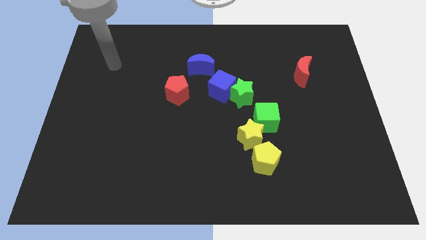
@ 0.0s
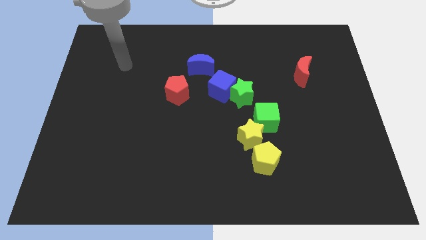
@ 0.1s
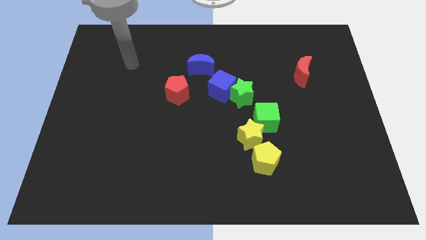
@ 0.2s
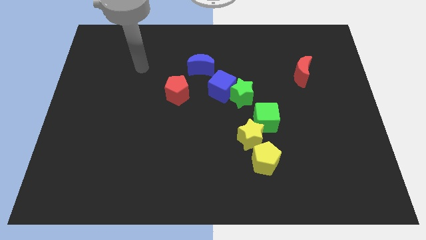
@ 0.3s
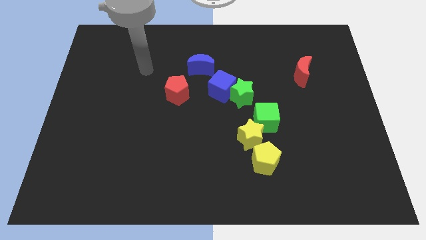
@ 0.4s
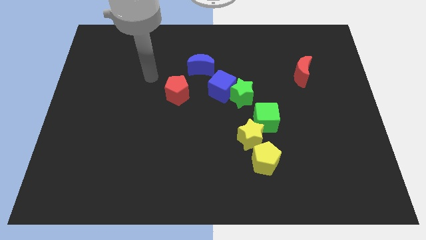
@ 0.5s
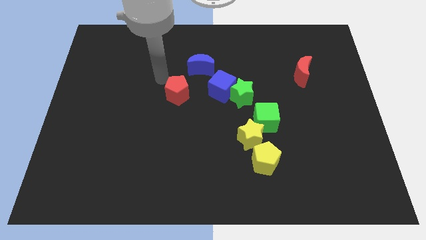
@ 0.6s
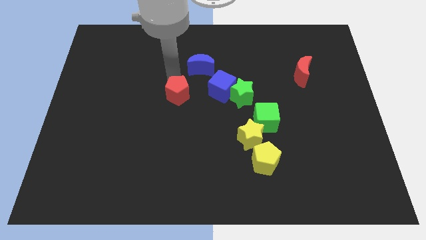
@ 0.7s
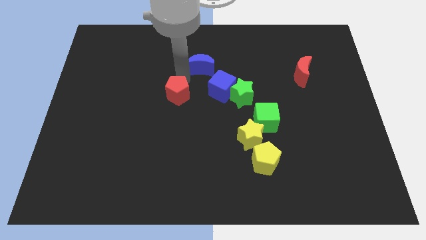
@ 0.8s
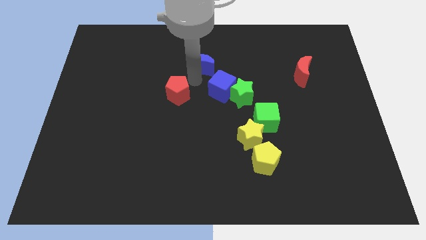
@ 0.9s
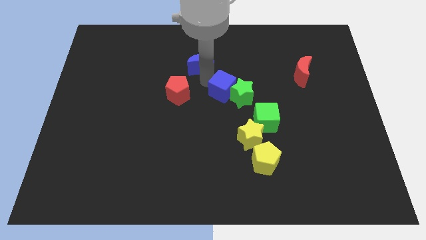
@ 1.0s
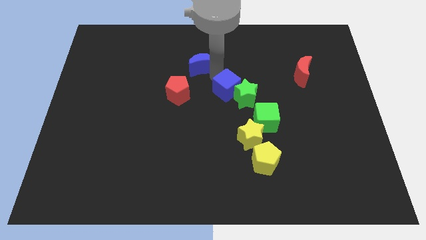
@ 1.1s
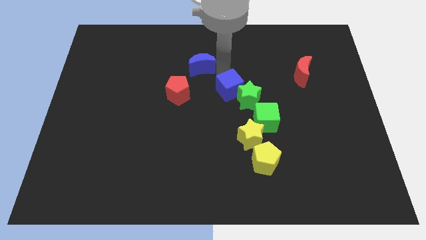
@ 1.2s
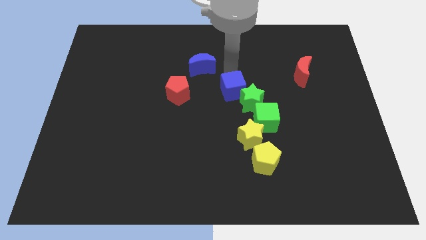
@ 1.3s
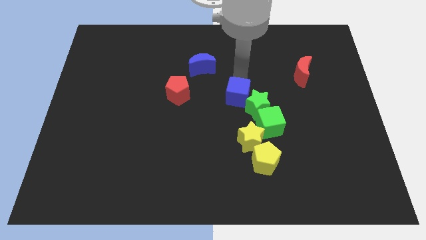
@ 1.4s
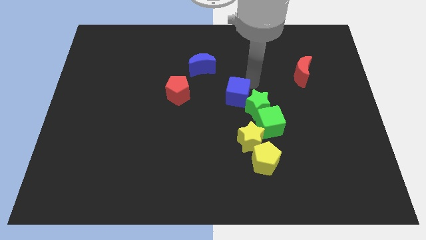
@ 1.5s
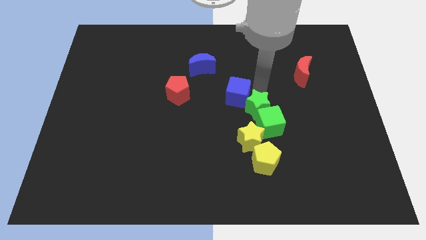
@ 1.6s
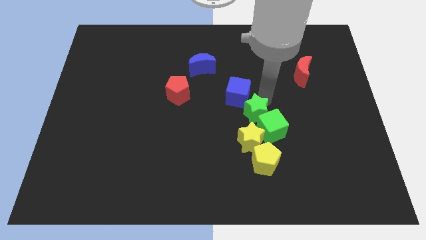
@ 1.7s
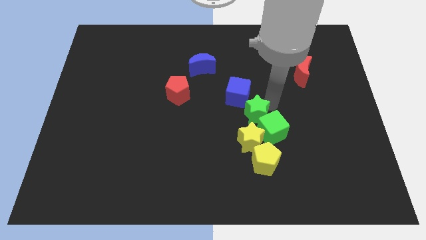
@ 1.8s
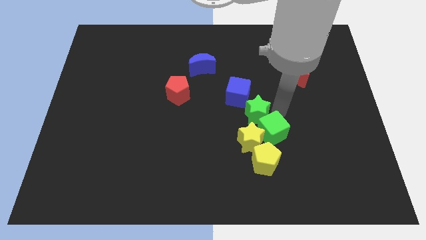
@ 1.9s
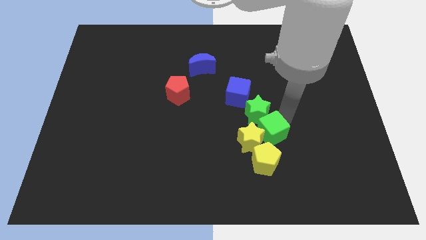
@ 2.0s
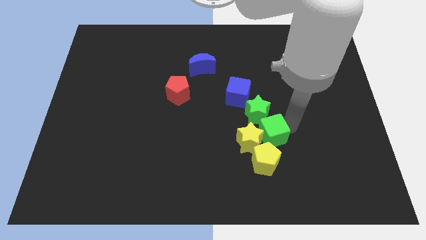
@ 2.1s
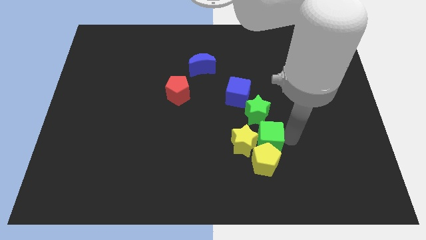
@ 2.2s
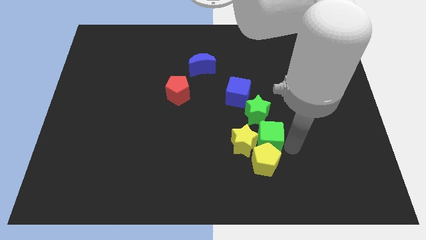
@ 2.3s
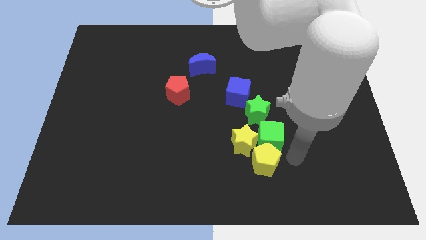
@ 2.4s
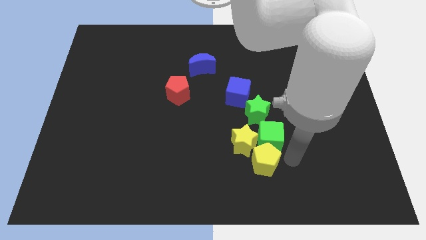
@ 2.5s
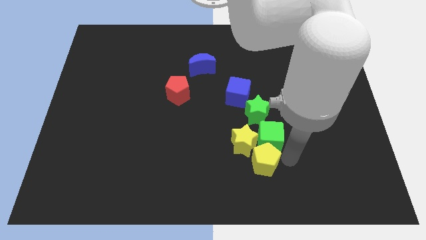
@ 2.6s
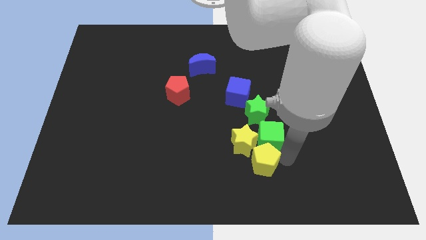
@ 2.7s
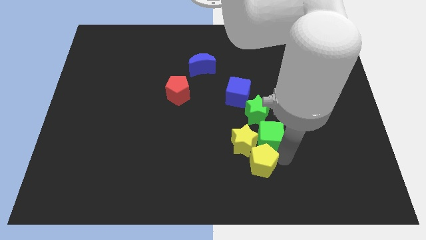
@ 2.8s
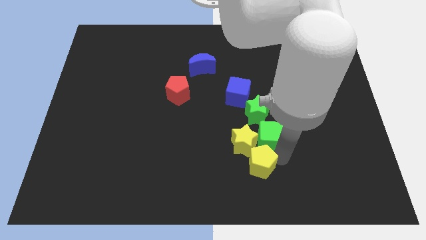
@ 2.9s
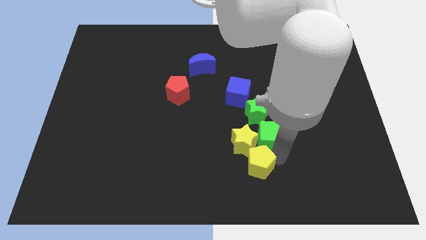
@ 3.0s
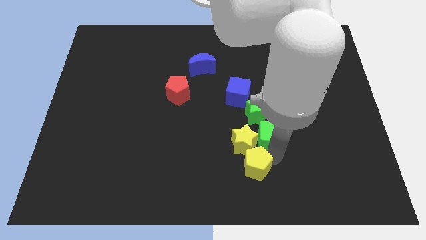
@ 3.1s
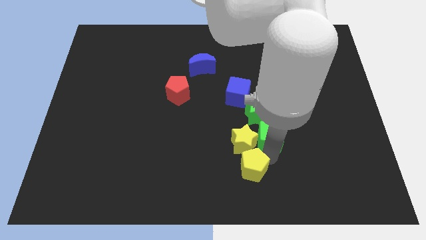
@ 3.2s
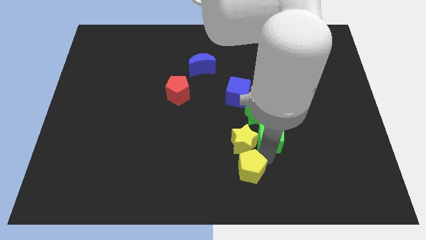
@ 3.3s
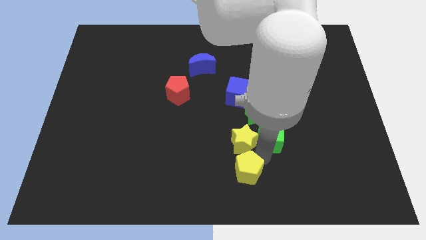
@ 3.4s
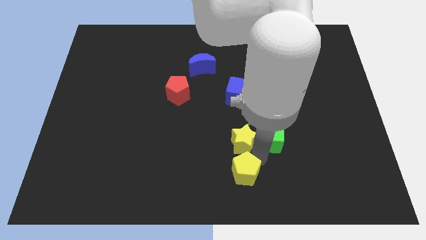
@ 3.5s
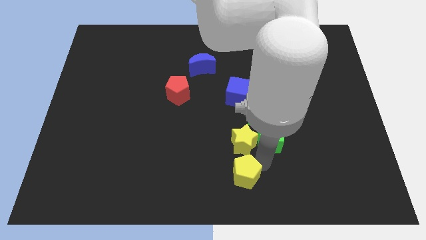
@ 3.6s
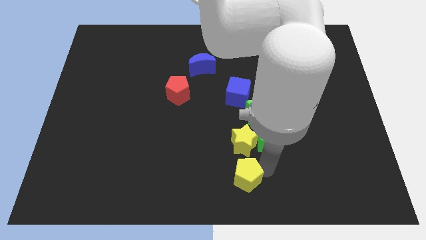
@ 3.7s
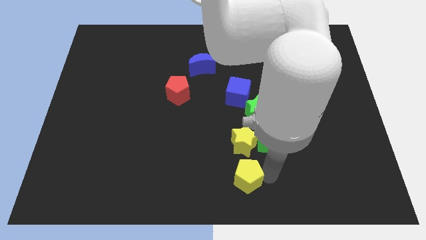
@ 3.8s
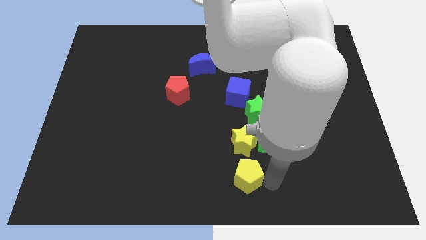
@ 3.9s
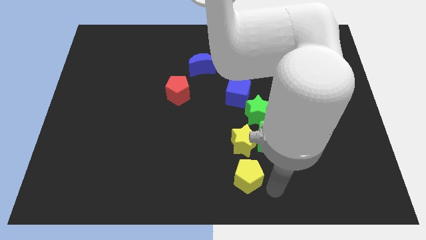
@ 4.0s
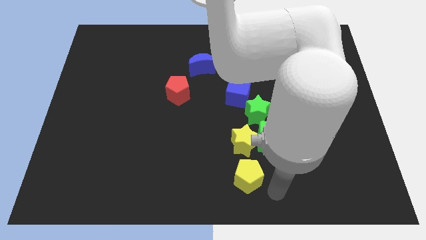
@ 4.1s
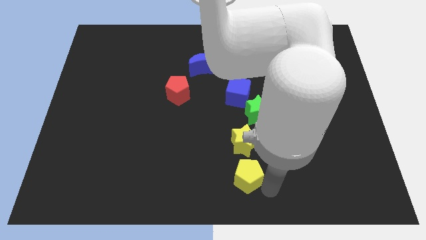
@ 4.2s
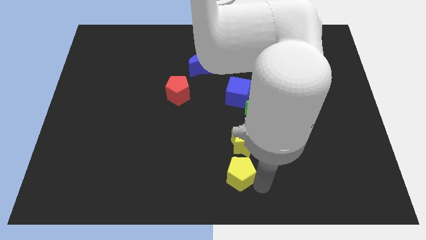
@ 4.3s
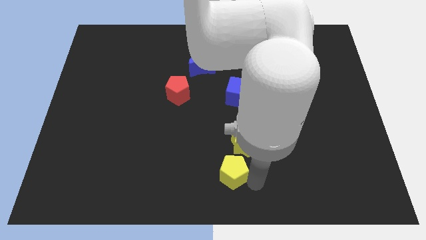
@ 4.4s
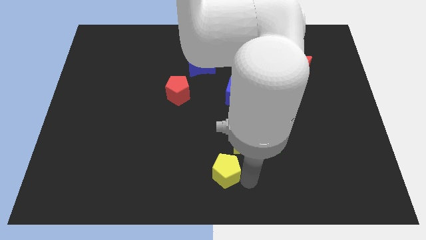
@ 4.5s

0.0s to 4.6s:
slide the yellow pentagon somewhat to the left

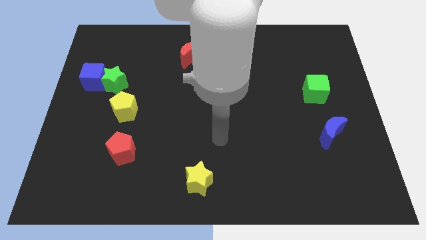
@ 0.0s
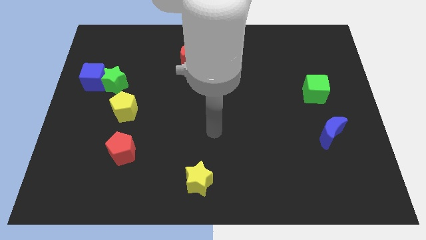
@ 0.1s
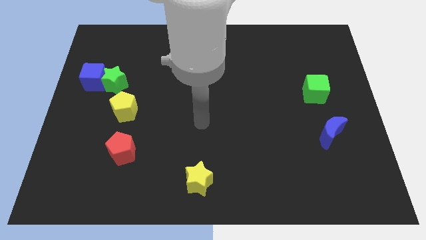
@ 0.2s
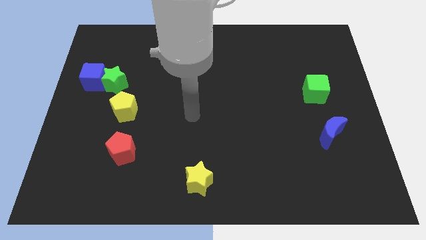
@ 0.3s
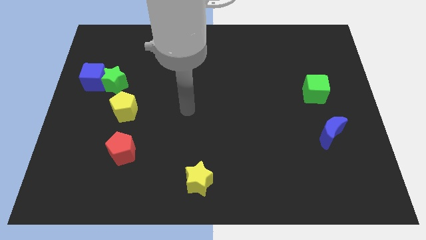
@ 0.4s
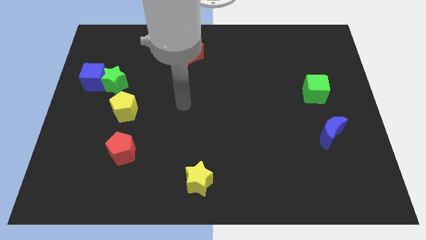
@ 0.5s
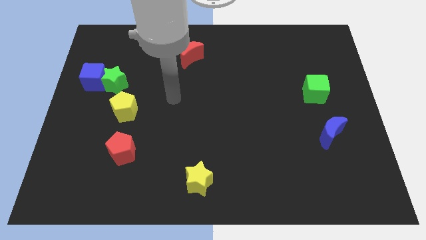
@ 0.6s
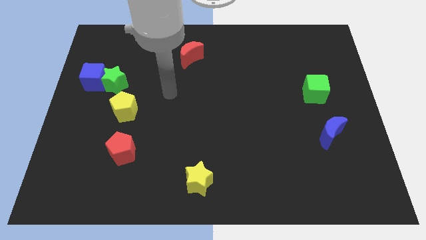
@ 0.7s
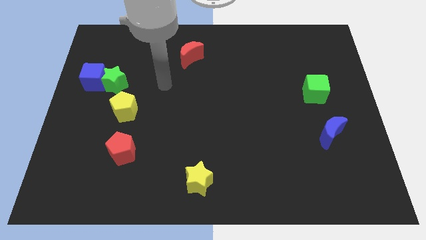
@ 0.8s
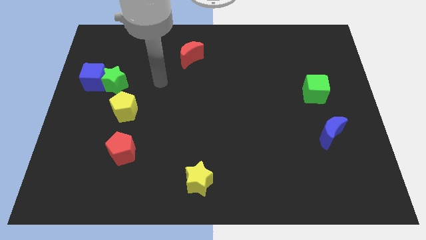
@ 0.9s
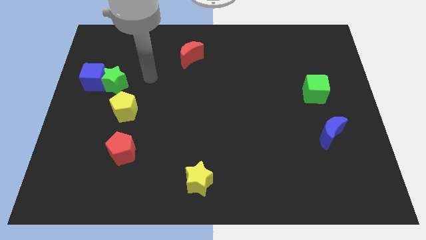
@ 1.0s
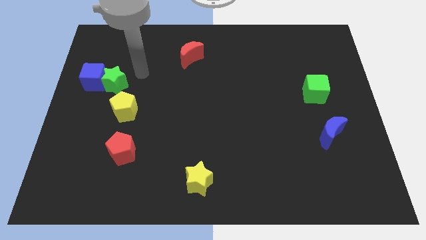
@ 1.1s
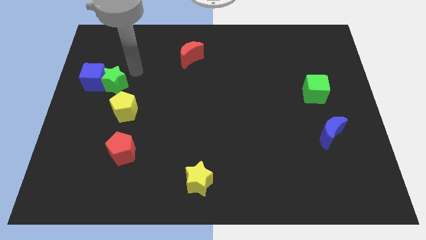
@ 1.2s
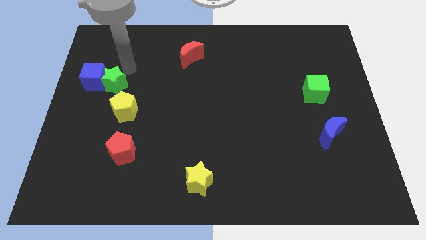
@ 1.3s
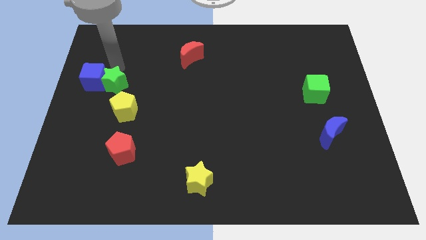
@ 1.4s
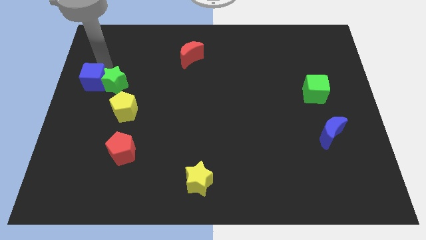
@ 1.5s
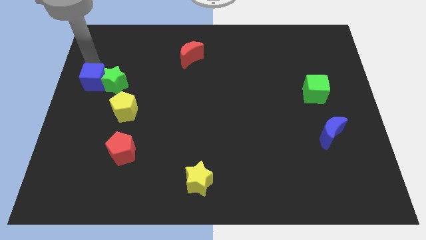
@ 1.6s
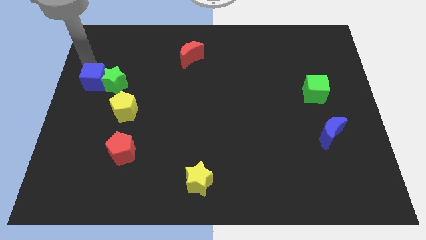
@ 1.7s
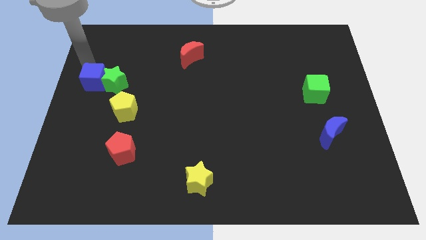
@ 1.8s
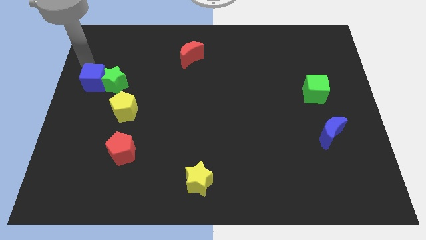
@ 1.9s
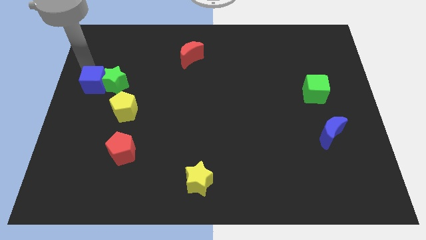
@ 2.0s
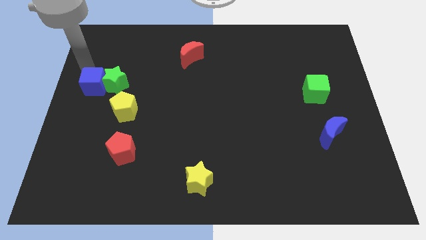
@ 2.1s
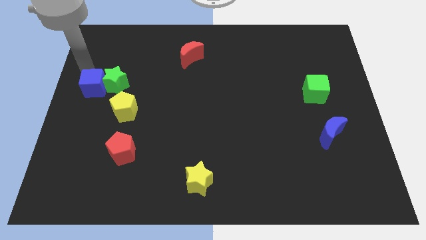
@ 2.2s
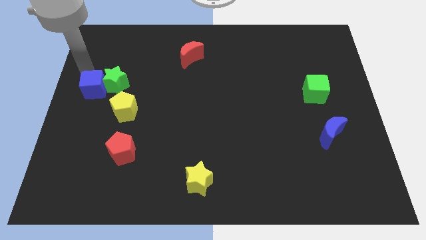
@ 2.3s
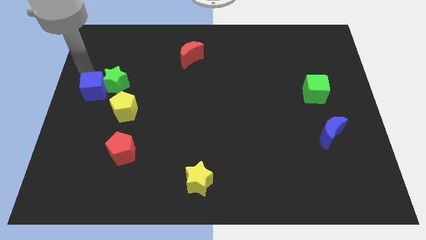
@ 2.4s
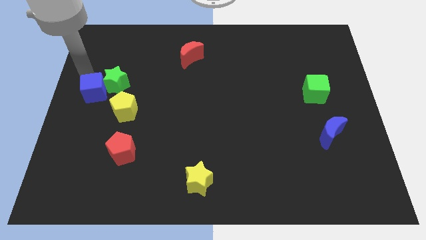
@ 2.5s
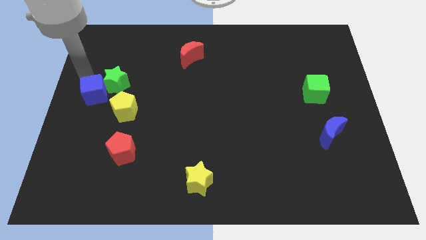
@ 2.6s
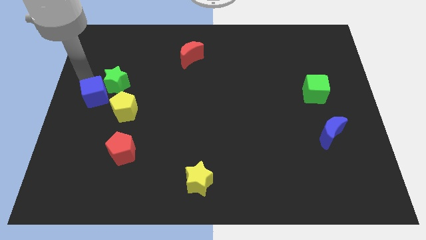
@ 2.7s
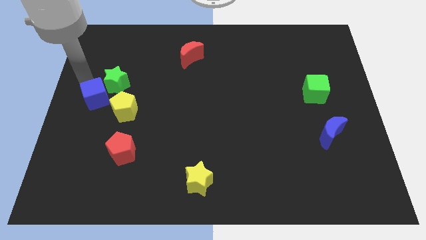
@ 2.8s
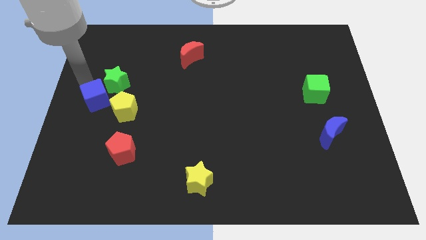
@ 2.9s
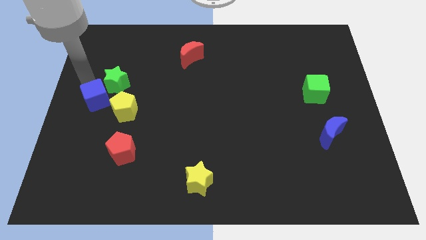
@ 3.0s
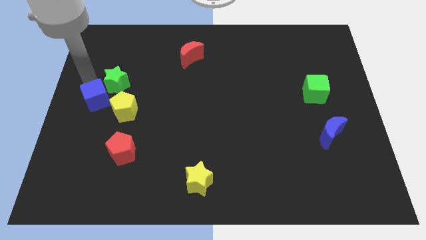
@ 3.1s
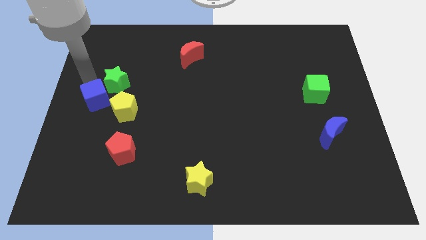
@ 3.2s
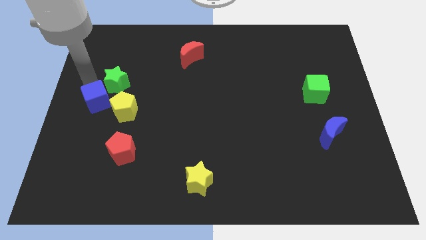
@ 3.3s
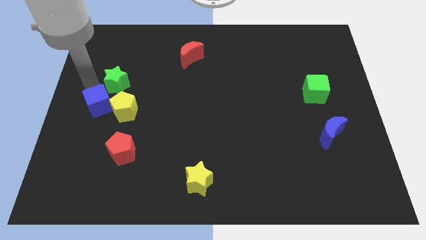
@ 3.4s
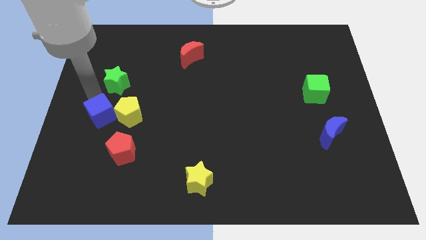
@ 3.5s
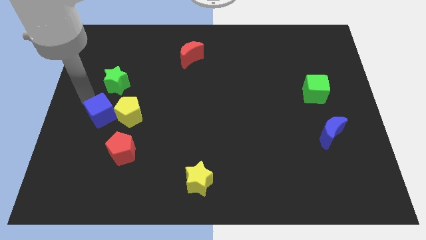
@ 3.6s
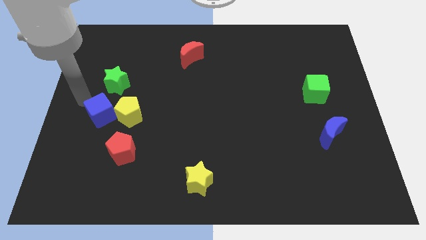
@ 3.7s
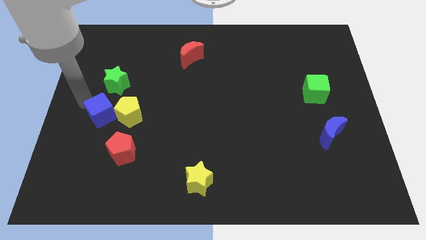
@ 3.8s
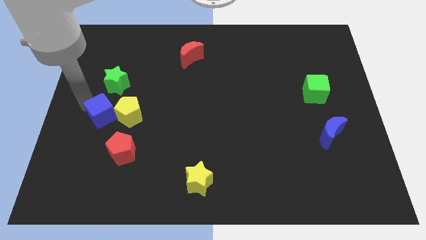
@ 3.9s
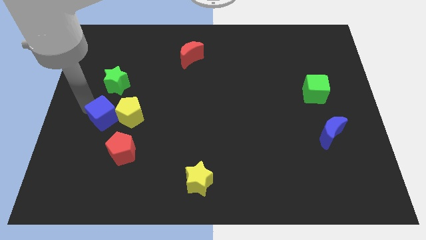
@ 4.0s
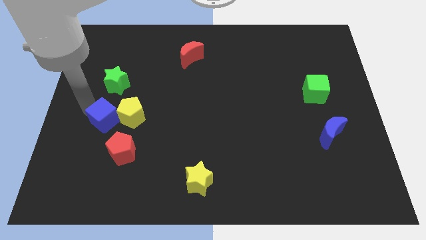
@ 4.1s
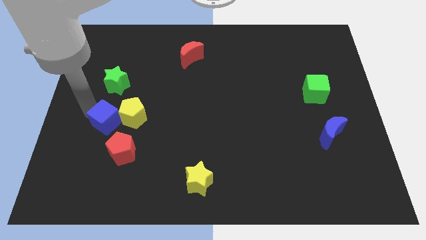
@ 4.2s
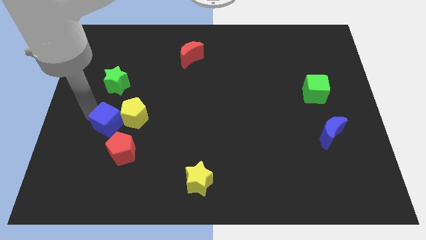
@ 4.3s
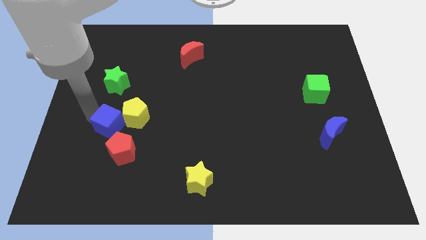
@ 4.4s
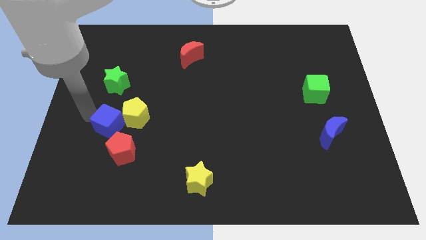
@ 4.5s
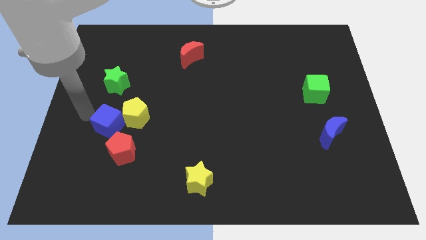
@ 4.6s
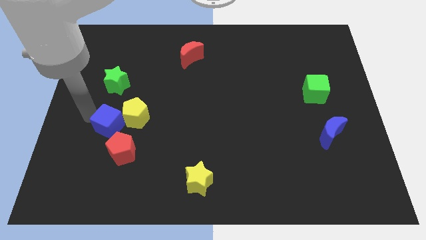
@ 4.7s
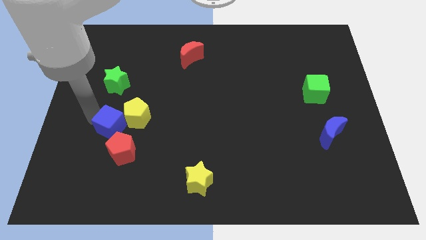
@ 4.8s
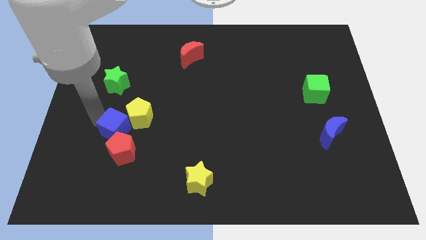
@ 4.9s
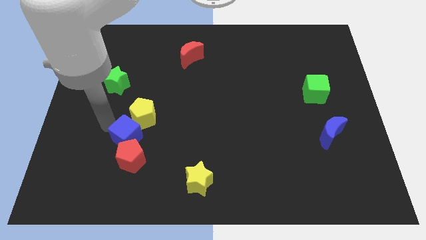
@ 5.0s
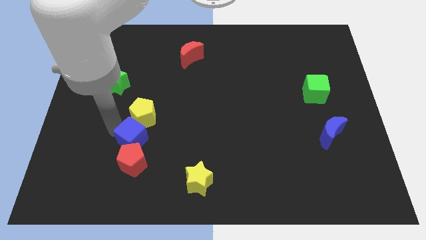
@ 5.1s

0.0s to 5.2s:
push the blue cube down and right
